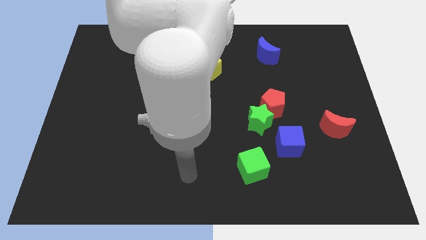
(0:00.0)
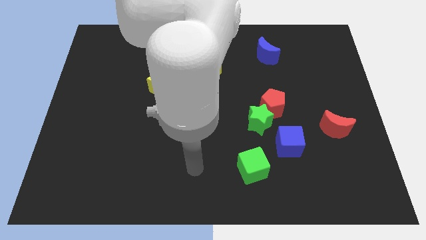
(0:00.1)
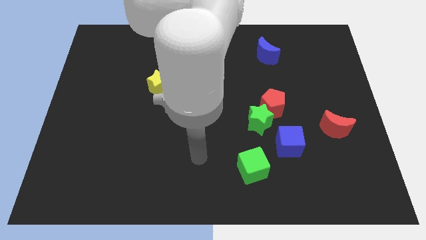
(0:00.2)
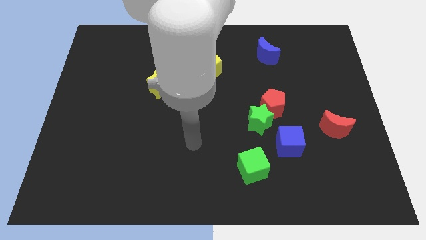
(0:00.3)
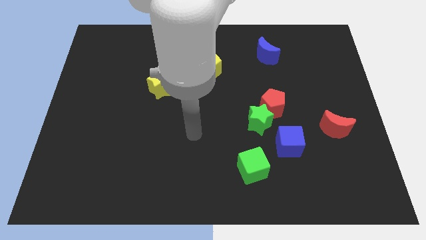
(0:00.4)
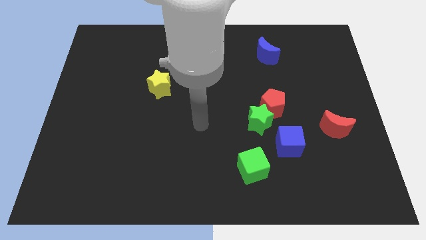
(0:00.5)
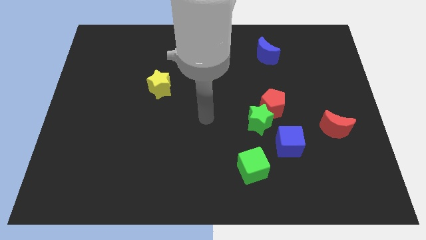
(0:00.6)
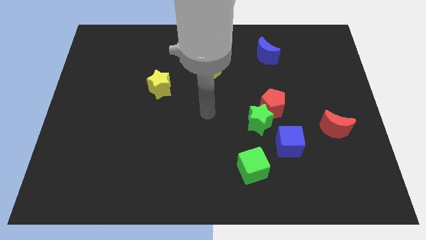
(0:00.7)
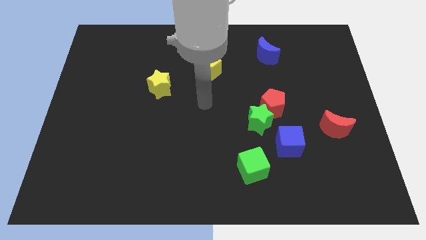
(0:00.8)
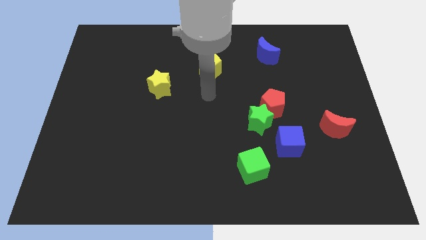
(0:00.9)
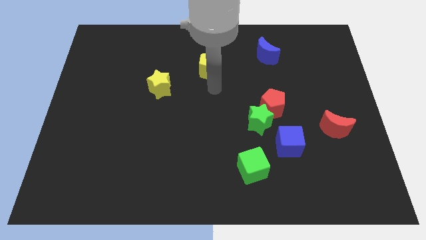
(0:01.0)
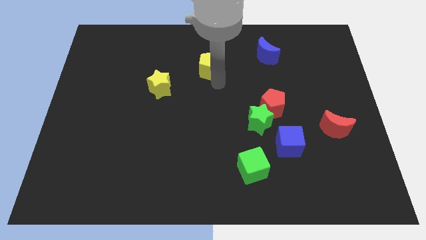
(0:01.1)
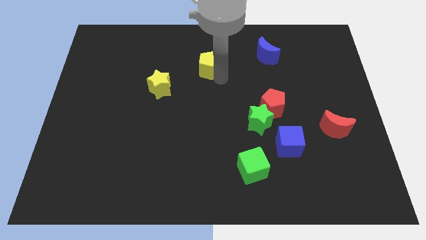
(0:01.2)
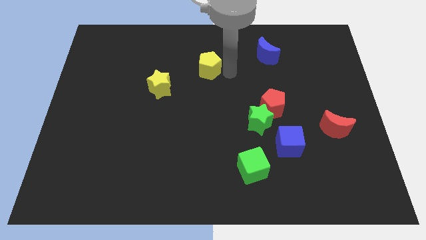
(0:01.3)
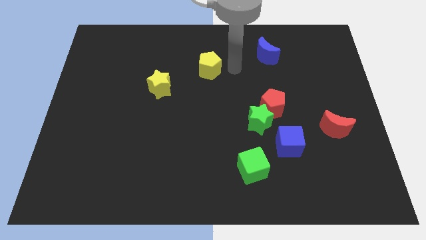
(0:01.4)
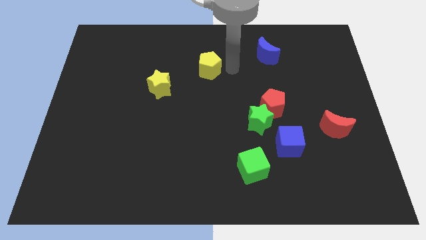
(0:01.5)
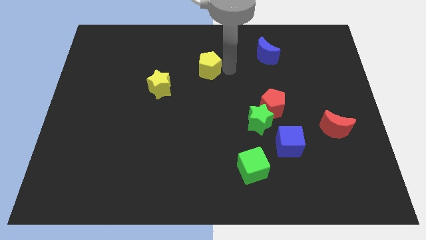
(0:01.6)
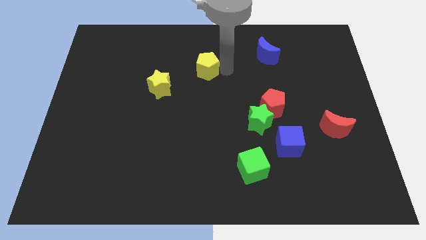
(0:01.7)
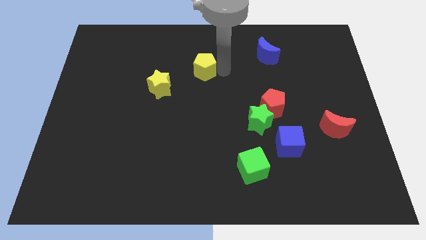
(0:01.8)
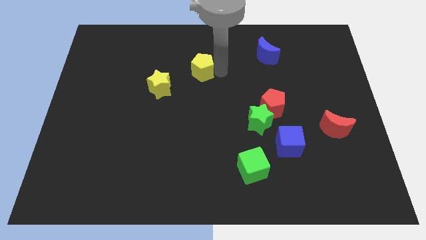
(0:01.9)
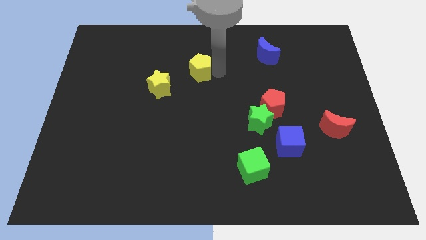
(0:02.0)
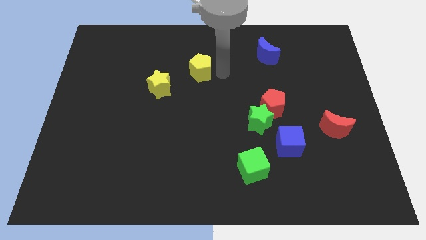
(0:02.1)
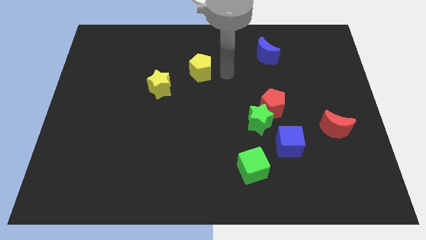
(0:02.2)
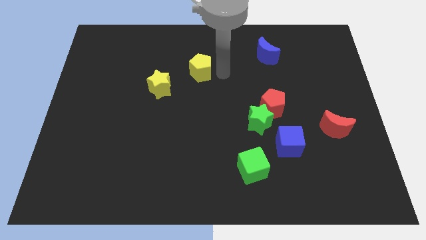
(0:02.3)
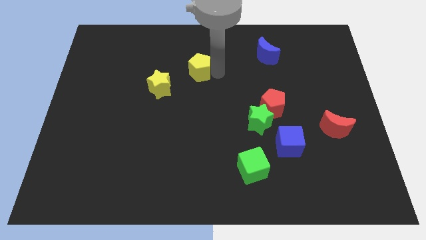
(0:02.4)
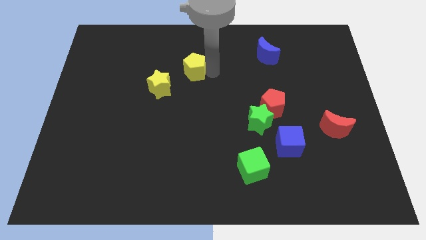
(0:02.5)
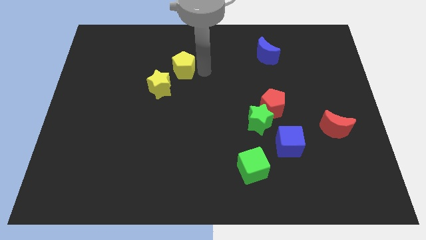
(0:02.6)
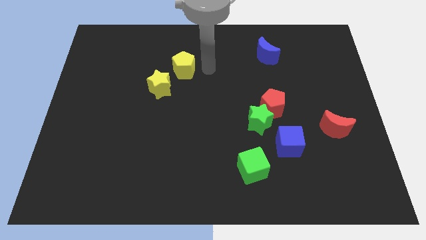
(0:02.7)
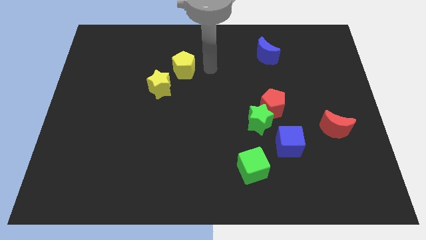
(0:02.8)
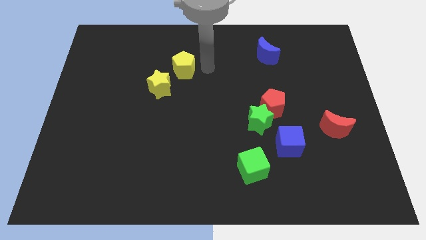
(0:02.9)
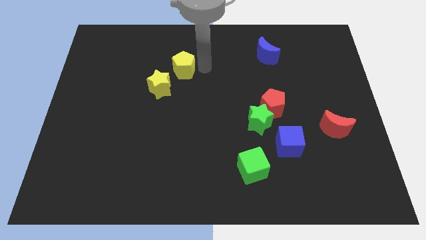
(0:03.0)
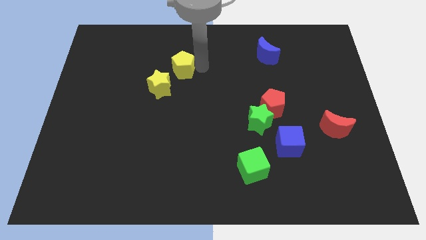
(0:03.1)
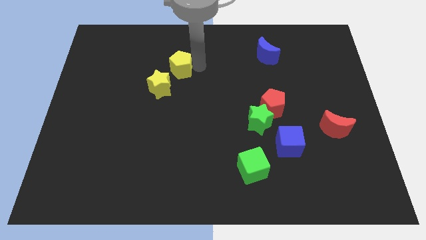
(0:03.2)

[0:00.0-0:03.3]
slightly slide the yellow pentagon to the left

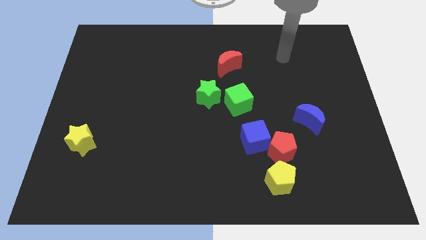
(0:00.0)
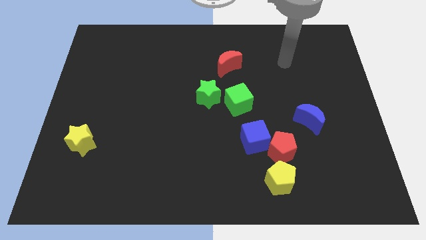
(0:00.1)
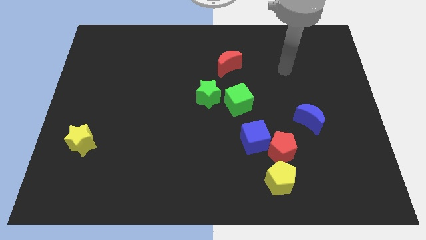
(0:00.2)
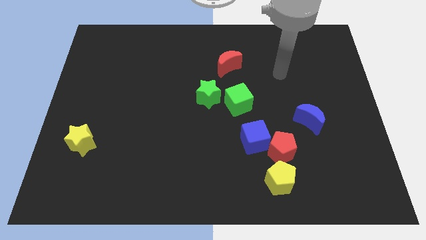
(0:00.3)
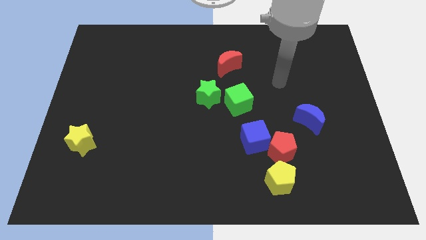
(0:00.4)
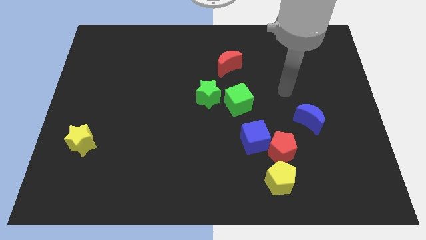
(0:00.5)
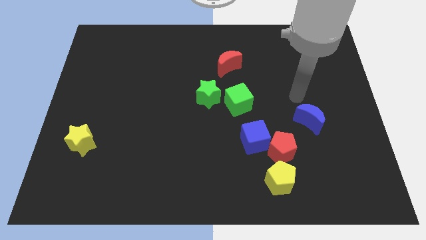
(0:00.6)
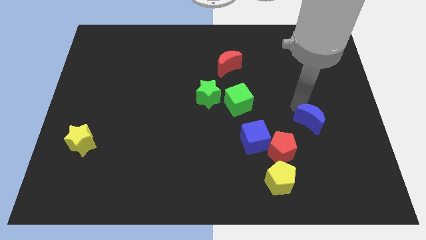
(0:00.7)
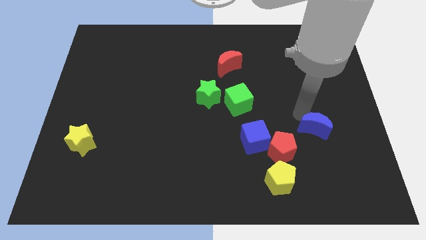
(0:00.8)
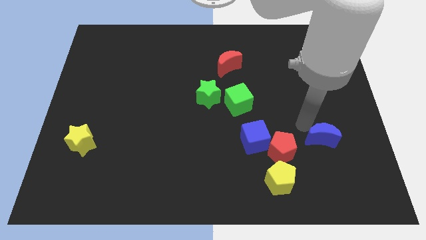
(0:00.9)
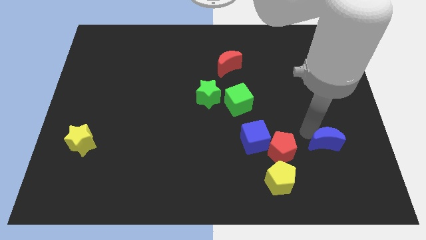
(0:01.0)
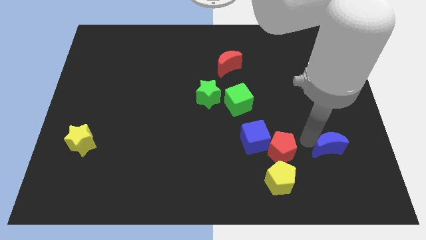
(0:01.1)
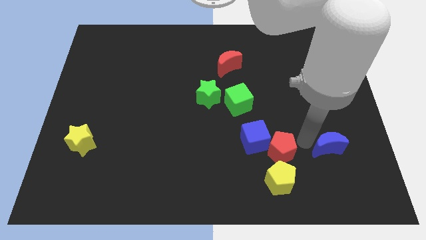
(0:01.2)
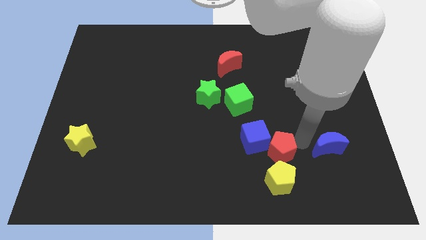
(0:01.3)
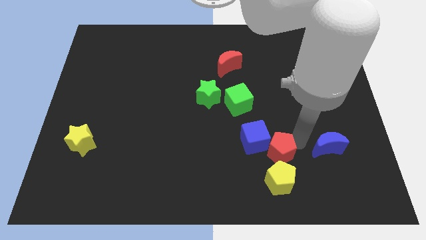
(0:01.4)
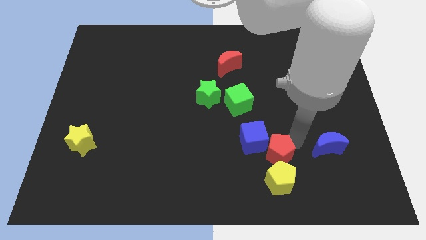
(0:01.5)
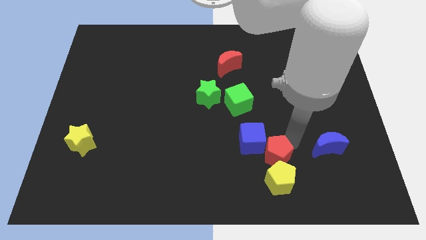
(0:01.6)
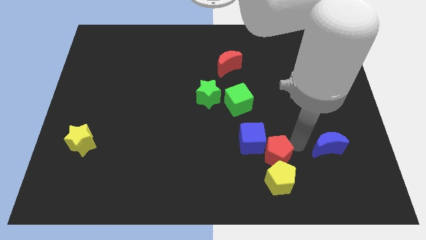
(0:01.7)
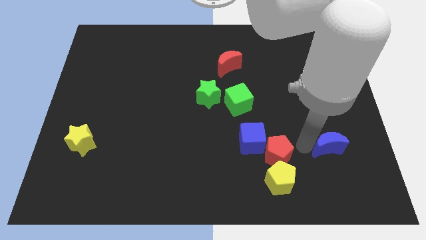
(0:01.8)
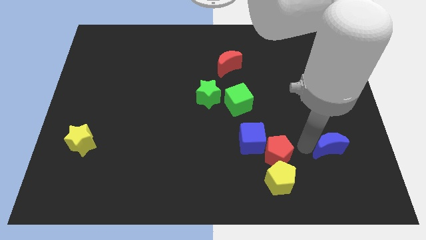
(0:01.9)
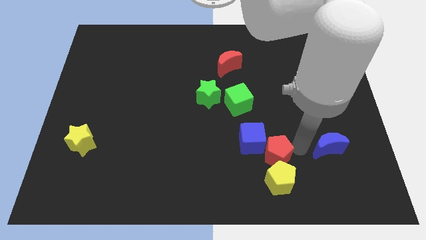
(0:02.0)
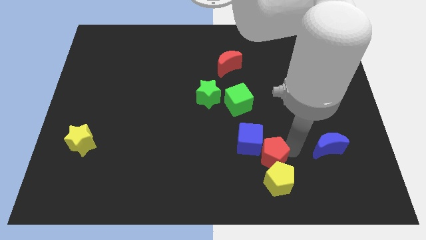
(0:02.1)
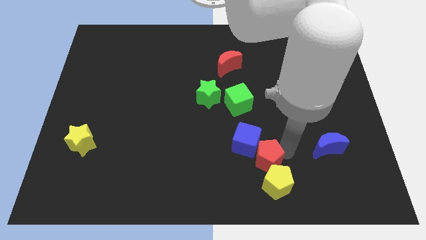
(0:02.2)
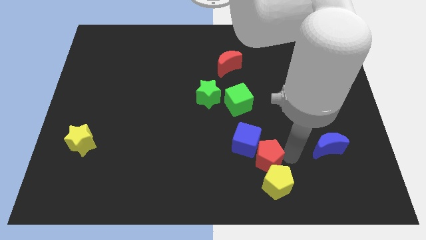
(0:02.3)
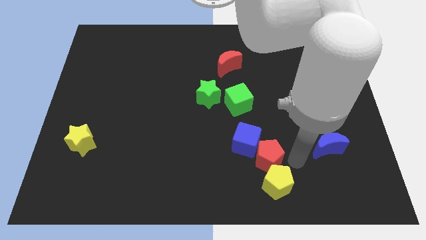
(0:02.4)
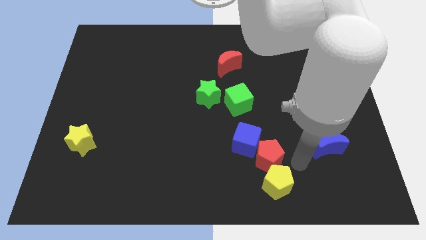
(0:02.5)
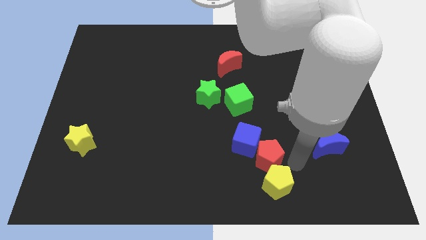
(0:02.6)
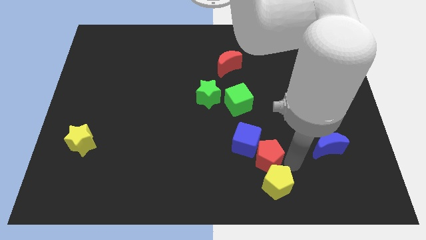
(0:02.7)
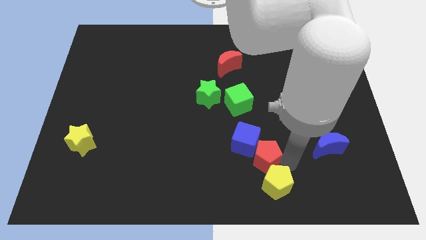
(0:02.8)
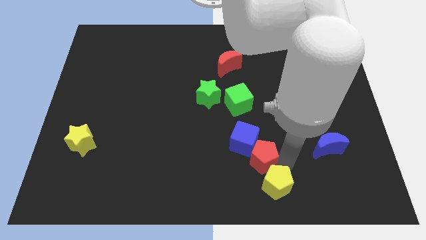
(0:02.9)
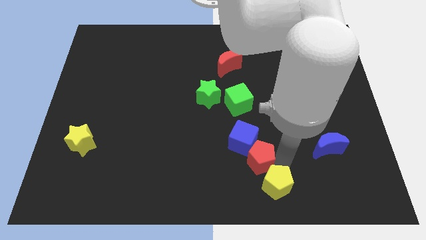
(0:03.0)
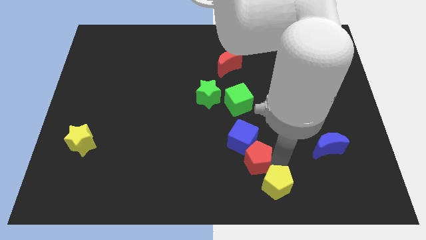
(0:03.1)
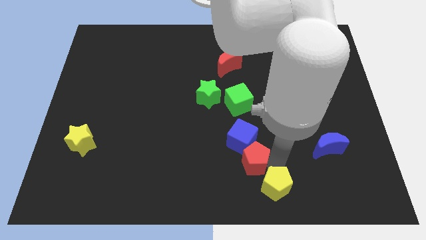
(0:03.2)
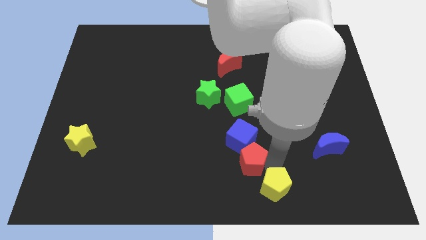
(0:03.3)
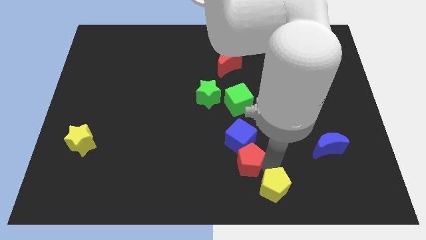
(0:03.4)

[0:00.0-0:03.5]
slightly slide the red pentagon left

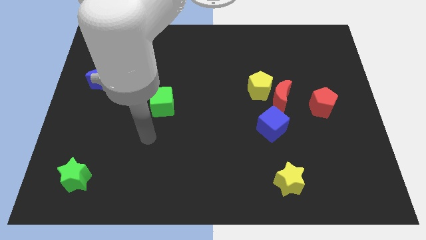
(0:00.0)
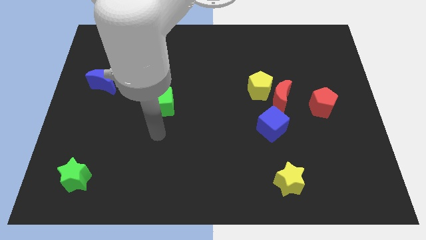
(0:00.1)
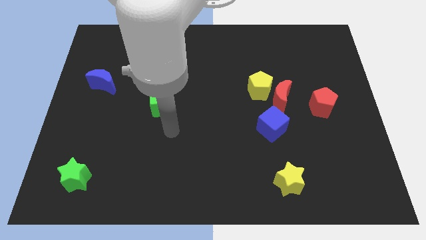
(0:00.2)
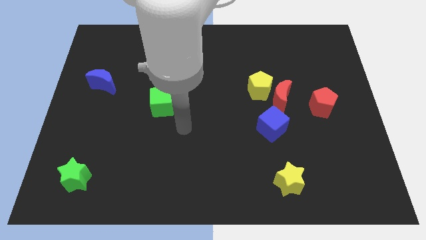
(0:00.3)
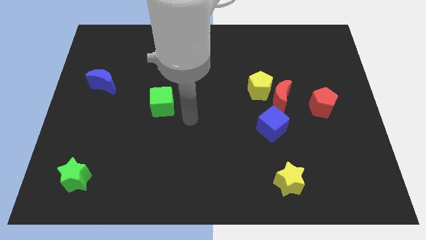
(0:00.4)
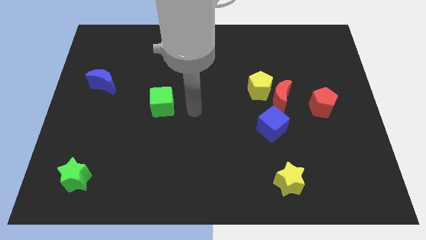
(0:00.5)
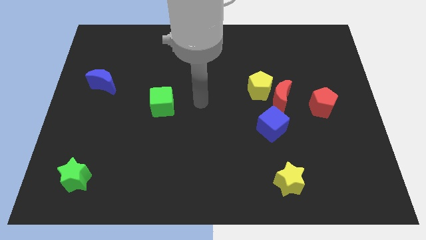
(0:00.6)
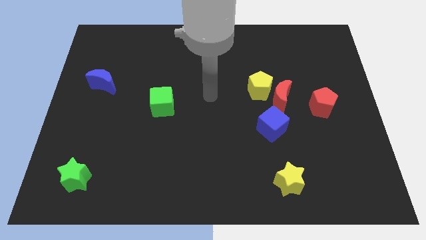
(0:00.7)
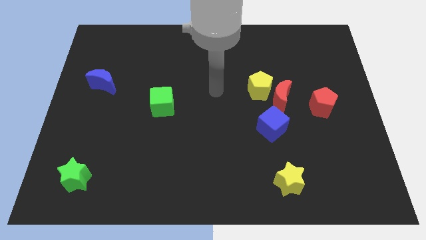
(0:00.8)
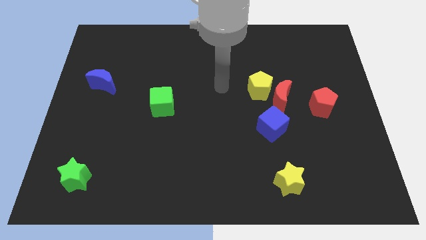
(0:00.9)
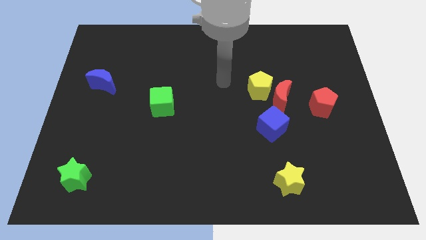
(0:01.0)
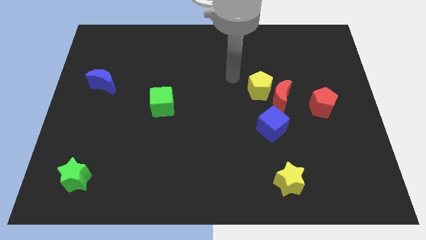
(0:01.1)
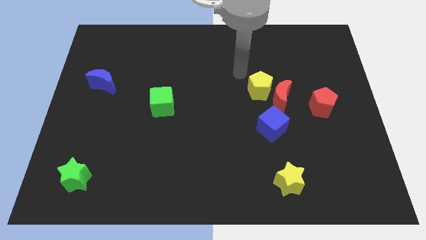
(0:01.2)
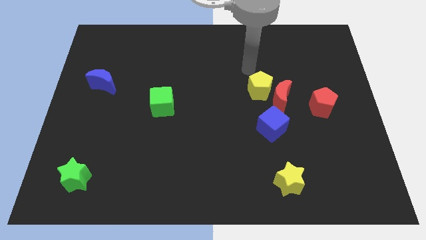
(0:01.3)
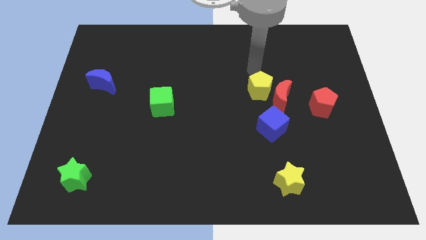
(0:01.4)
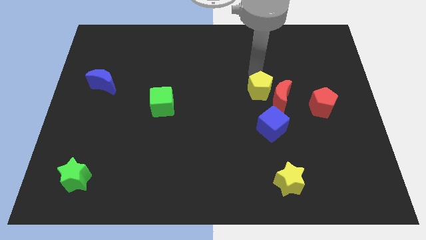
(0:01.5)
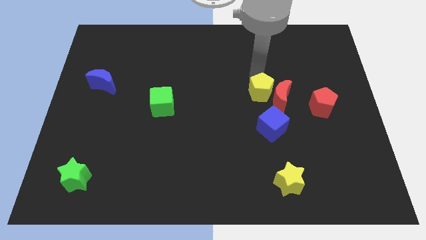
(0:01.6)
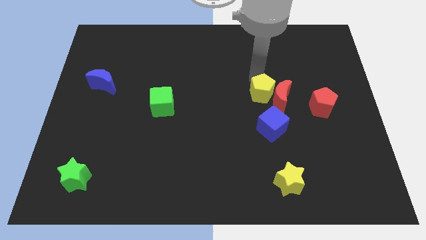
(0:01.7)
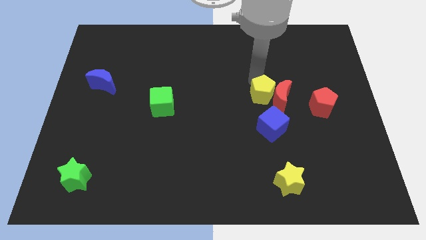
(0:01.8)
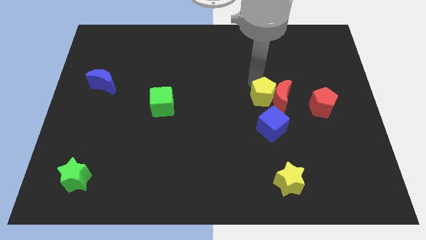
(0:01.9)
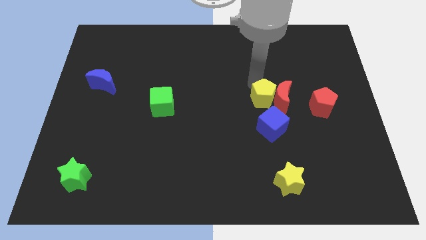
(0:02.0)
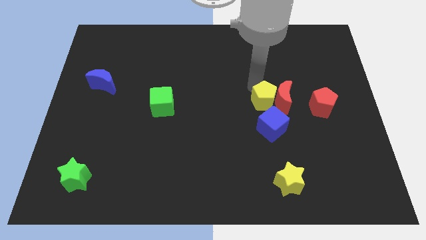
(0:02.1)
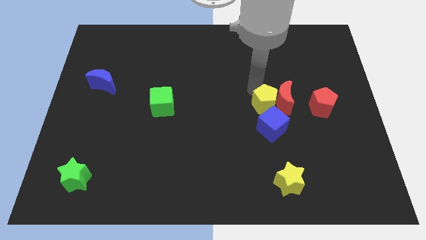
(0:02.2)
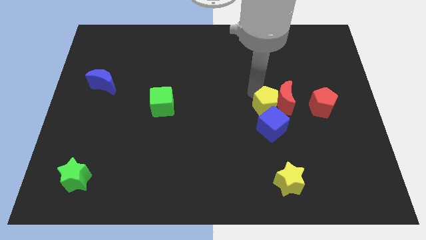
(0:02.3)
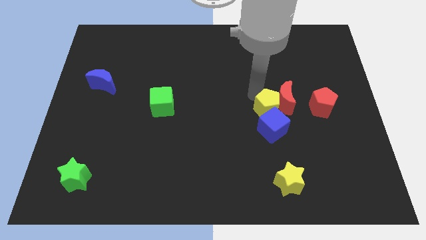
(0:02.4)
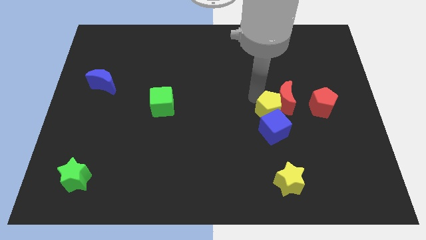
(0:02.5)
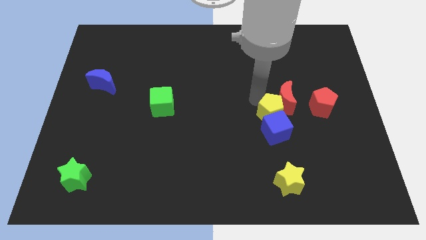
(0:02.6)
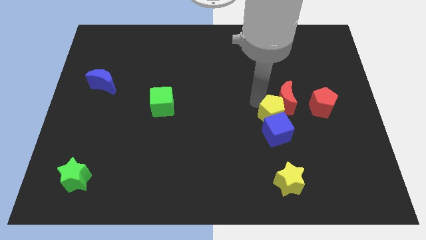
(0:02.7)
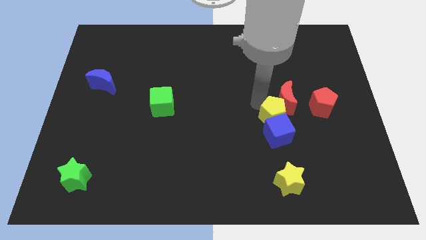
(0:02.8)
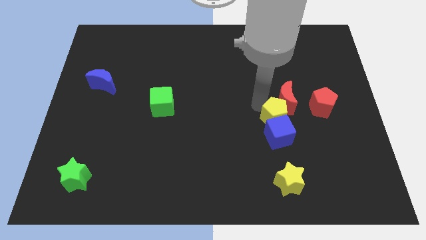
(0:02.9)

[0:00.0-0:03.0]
slide the yellow pentagon down and then to the right a bit
